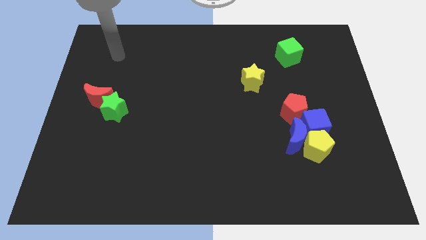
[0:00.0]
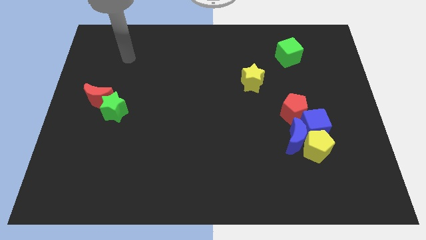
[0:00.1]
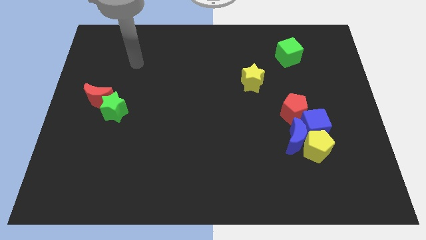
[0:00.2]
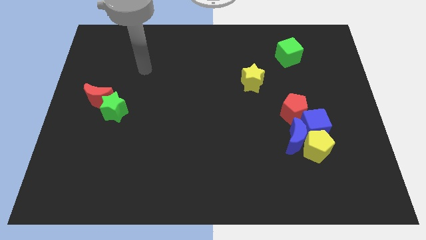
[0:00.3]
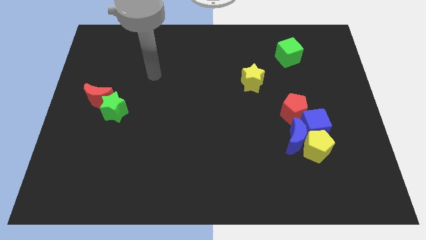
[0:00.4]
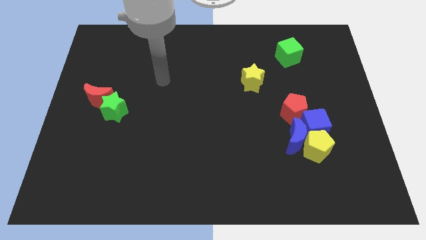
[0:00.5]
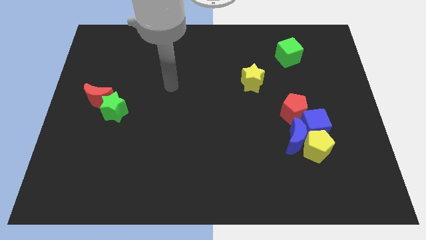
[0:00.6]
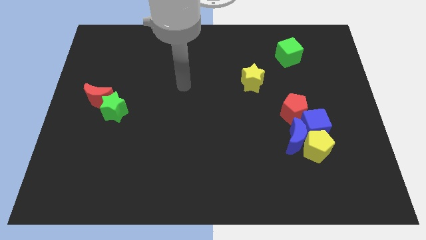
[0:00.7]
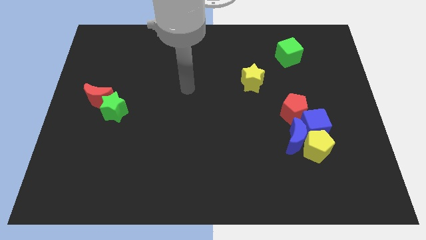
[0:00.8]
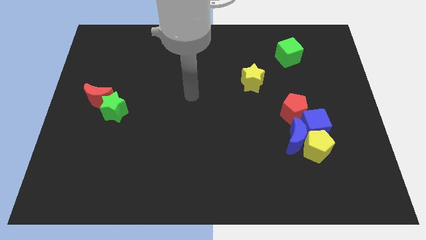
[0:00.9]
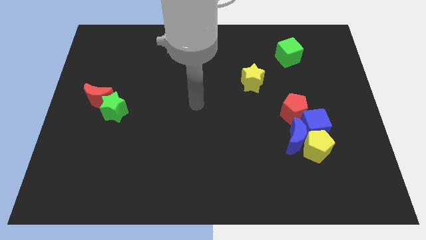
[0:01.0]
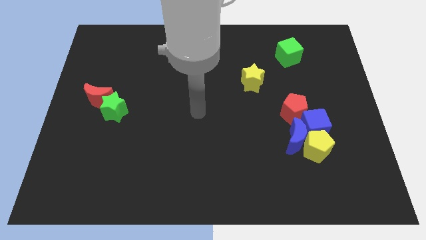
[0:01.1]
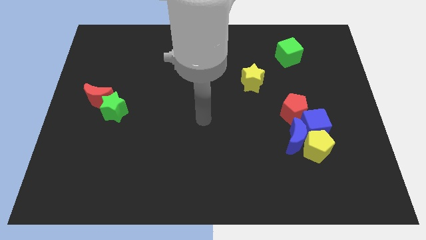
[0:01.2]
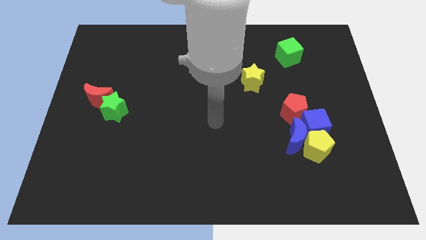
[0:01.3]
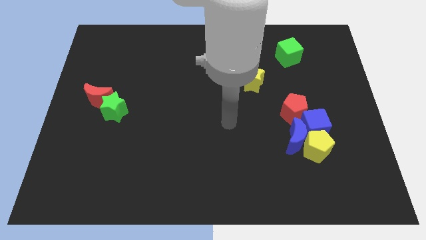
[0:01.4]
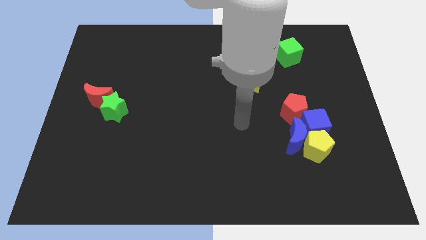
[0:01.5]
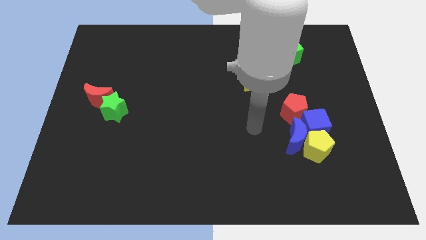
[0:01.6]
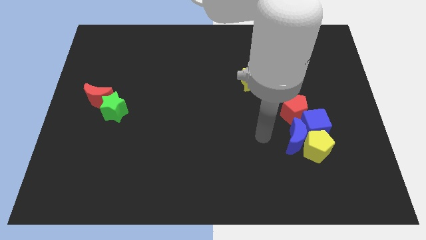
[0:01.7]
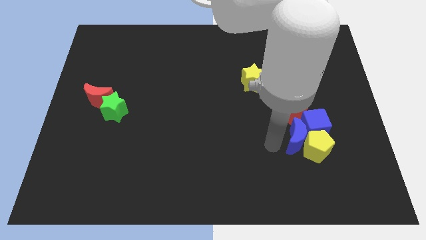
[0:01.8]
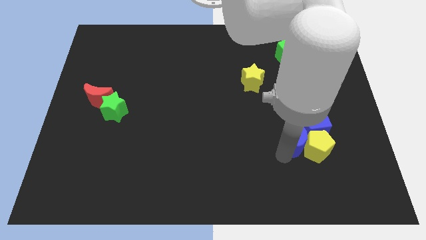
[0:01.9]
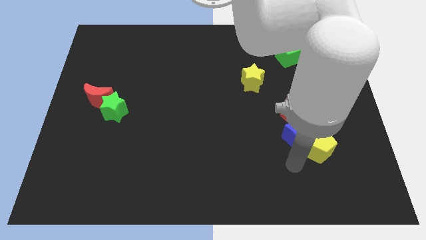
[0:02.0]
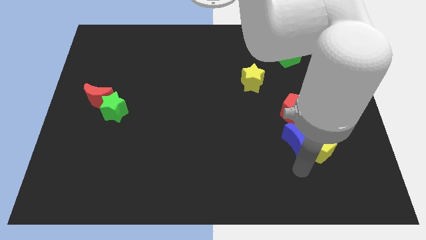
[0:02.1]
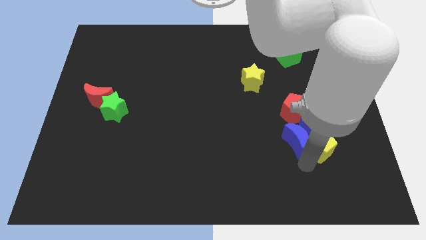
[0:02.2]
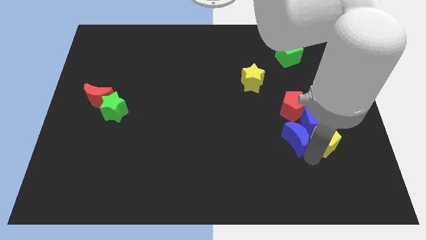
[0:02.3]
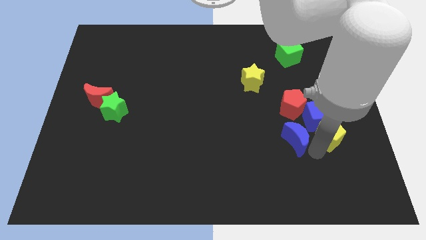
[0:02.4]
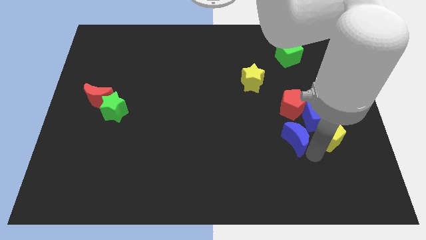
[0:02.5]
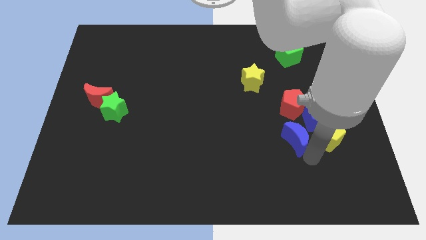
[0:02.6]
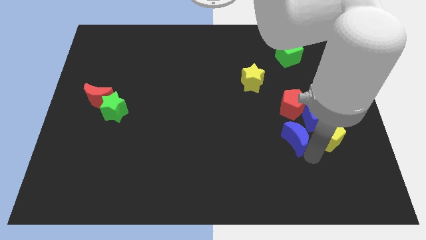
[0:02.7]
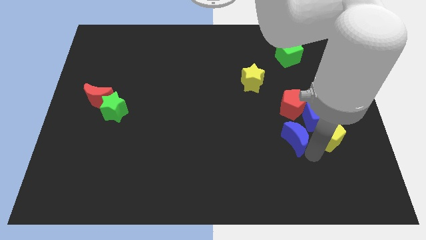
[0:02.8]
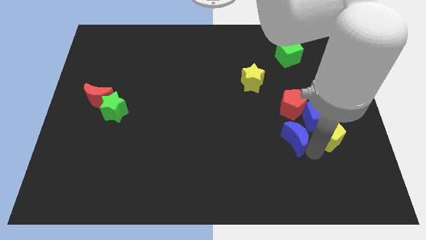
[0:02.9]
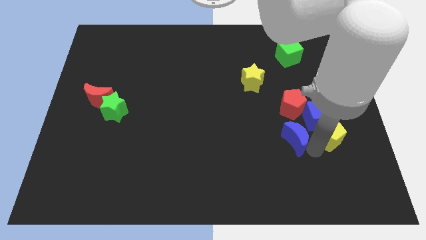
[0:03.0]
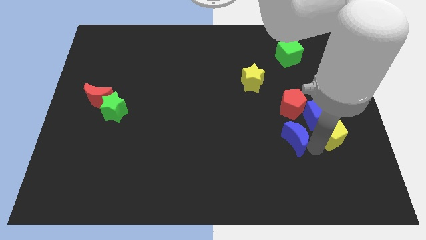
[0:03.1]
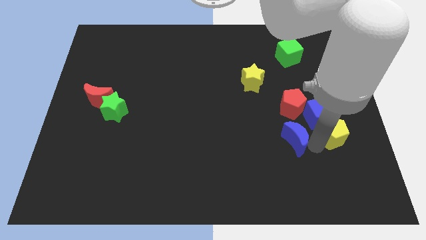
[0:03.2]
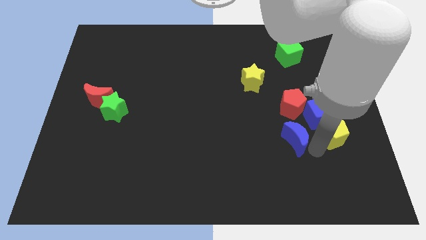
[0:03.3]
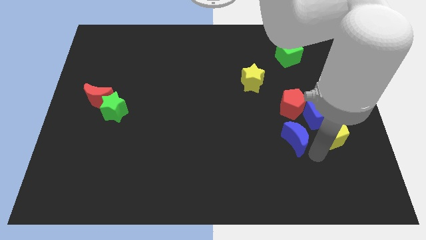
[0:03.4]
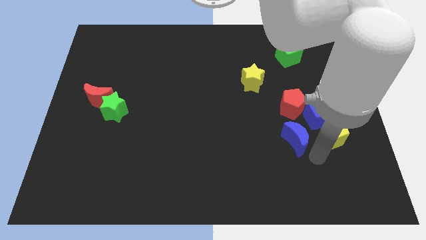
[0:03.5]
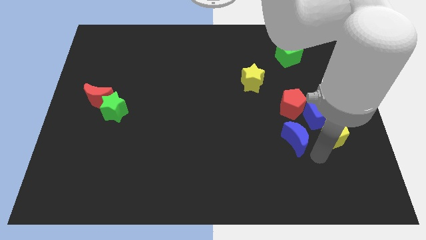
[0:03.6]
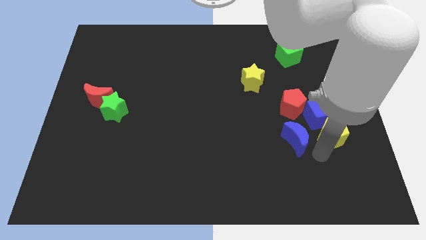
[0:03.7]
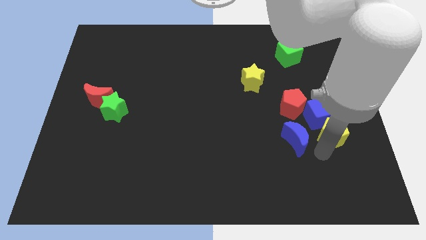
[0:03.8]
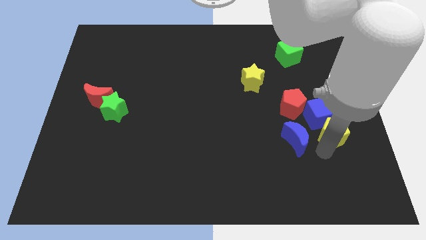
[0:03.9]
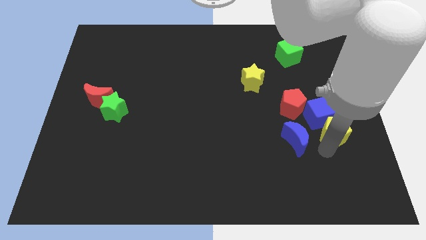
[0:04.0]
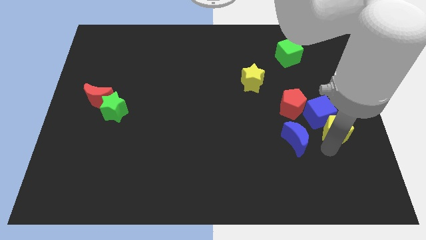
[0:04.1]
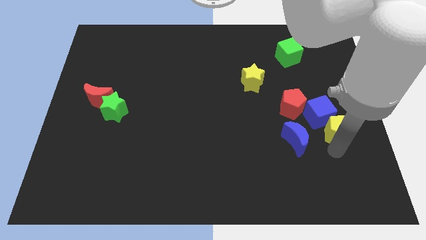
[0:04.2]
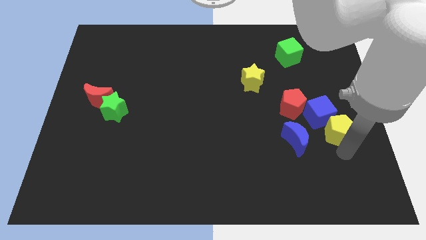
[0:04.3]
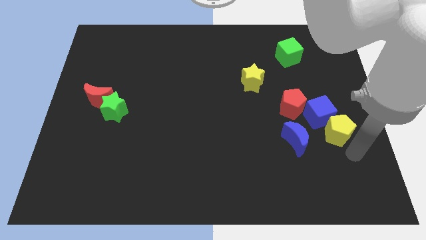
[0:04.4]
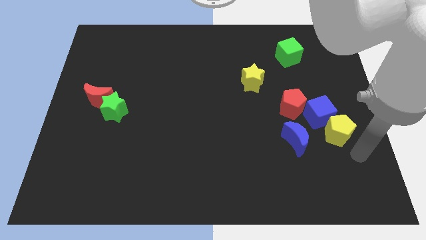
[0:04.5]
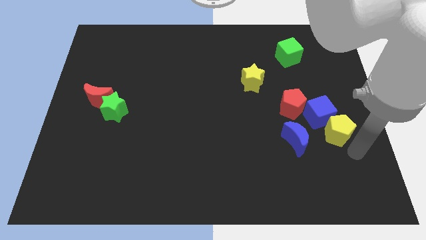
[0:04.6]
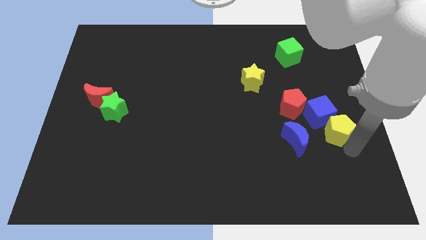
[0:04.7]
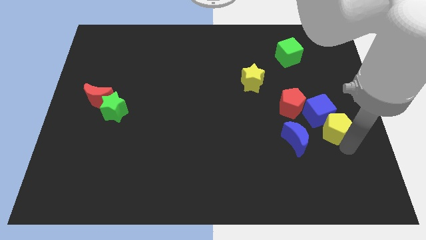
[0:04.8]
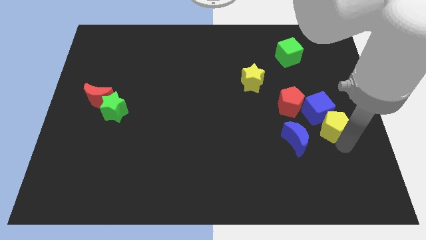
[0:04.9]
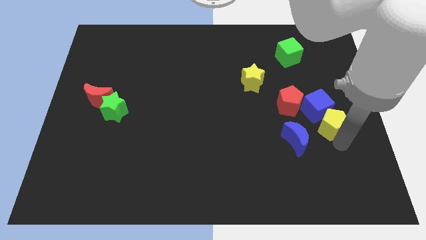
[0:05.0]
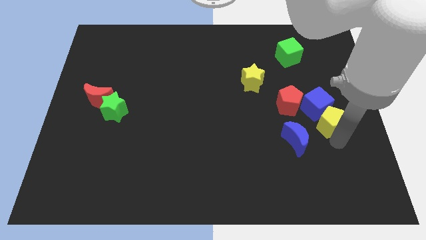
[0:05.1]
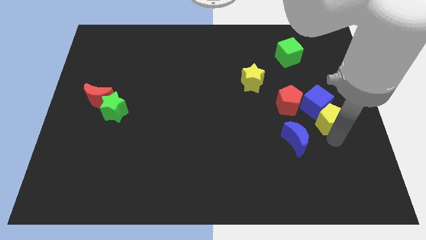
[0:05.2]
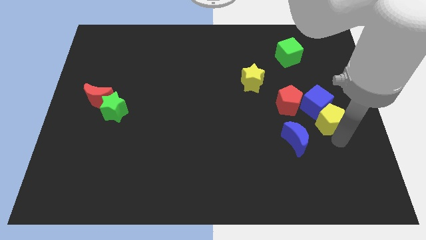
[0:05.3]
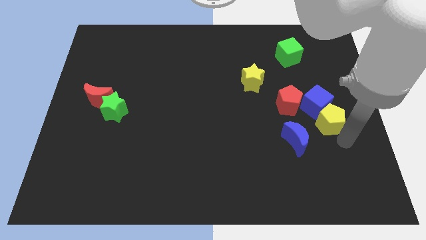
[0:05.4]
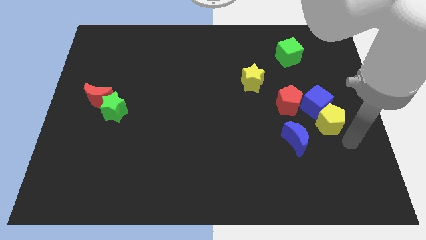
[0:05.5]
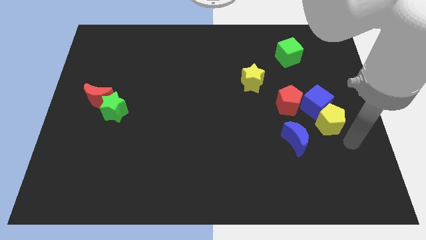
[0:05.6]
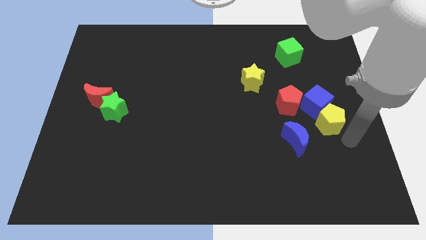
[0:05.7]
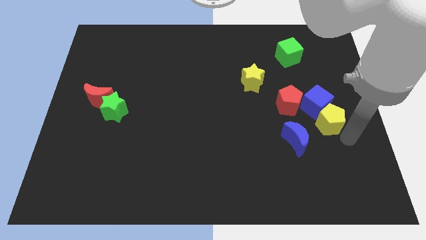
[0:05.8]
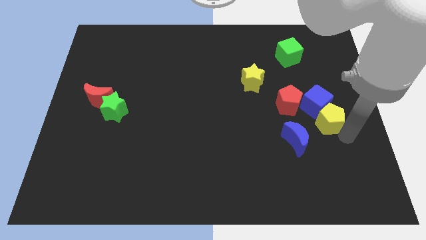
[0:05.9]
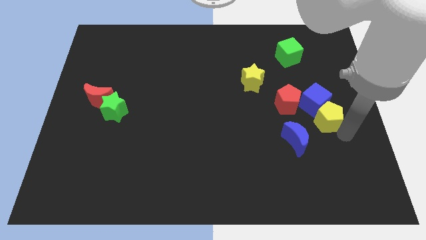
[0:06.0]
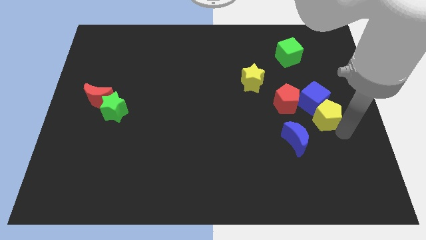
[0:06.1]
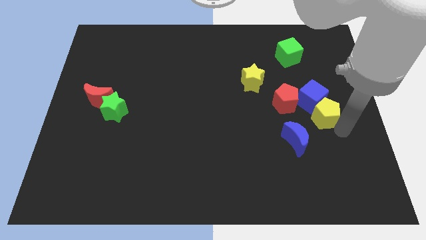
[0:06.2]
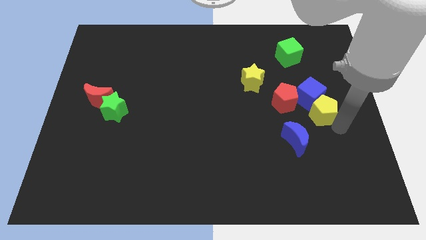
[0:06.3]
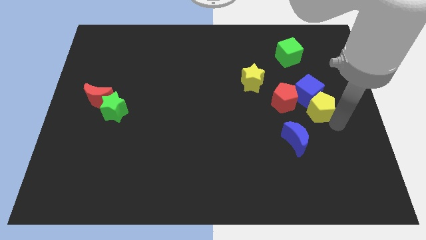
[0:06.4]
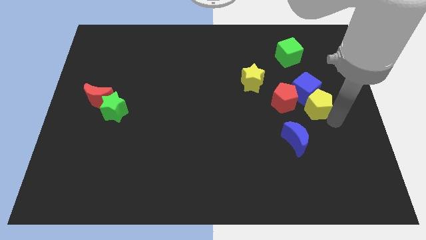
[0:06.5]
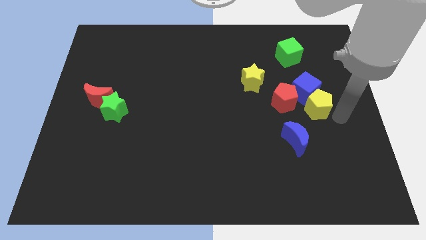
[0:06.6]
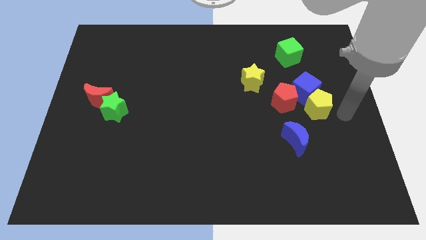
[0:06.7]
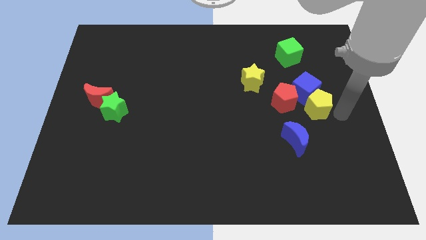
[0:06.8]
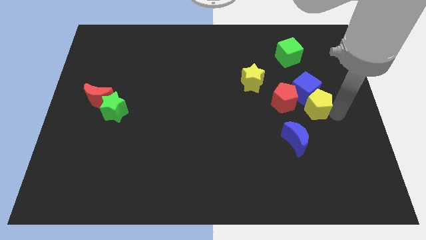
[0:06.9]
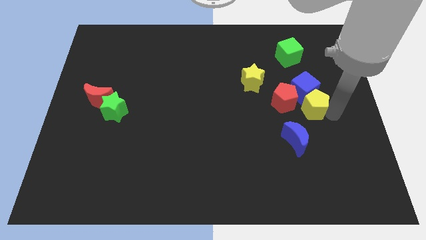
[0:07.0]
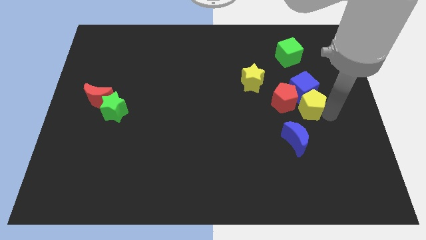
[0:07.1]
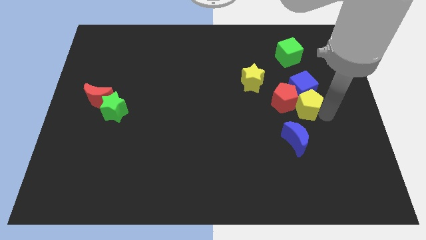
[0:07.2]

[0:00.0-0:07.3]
move the yellow pentagon close to the red pentagon
